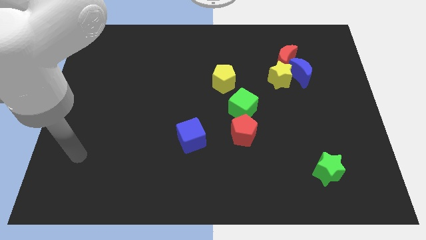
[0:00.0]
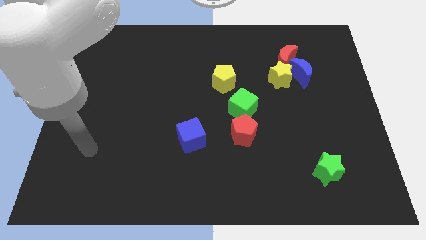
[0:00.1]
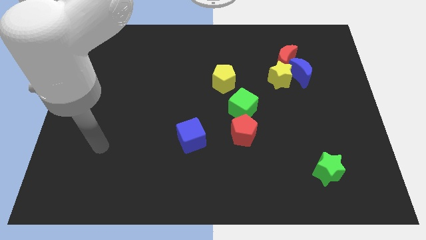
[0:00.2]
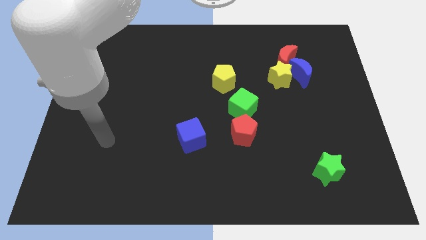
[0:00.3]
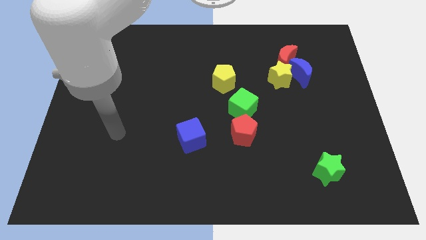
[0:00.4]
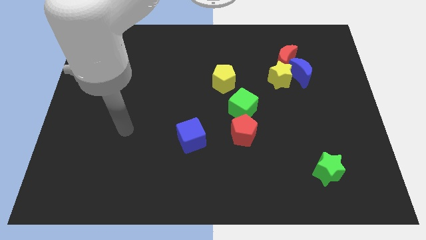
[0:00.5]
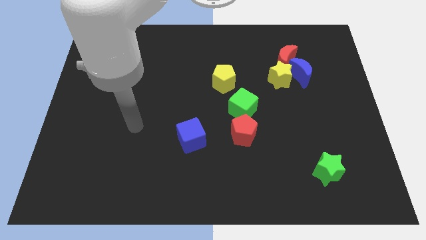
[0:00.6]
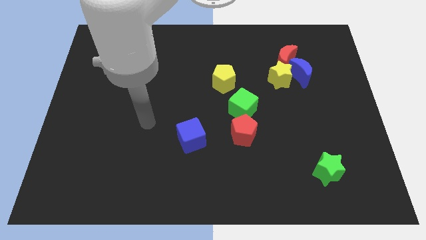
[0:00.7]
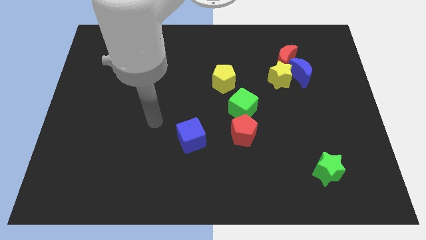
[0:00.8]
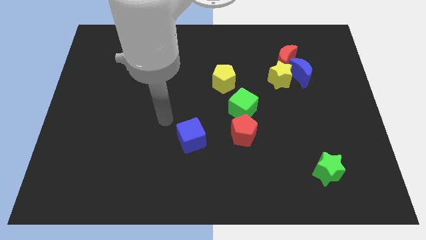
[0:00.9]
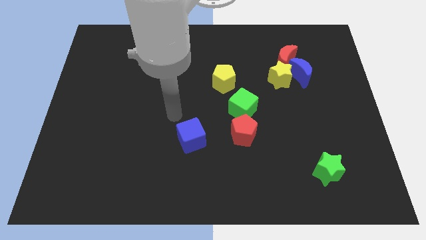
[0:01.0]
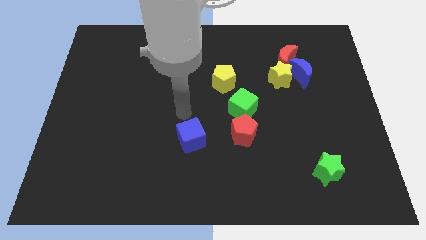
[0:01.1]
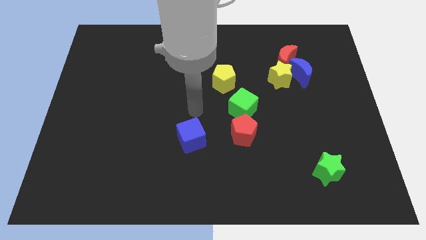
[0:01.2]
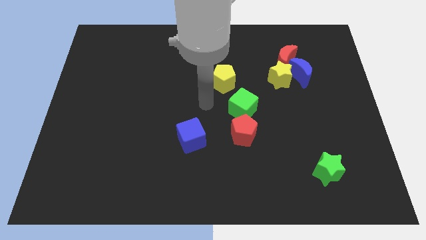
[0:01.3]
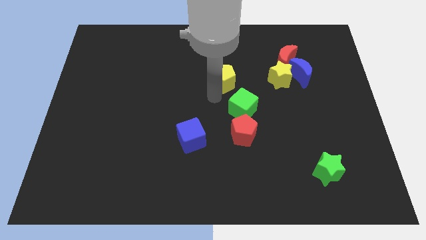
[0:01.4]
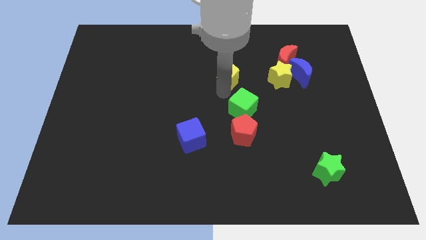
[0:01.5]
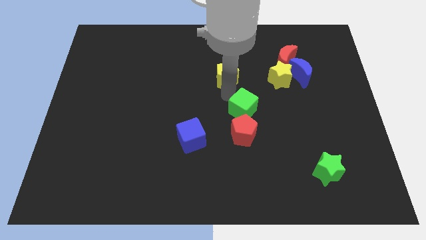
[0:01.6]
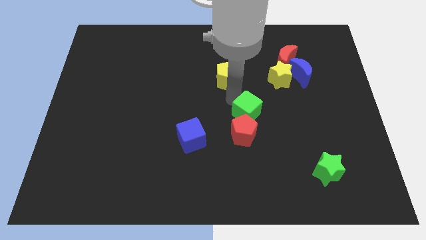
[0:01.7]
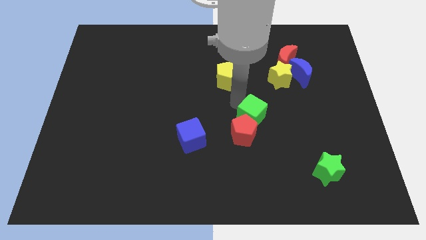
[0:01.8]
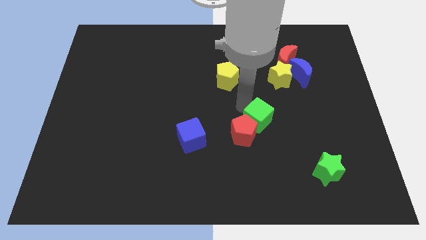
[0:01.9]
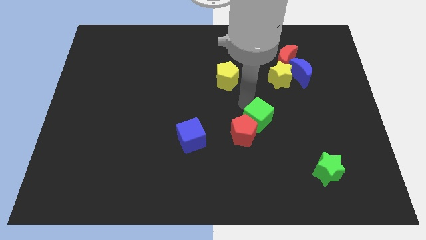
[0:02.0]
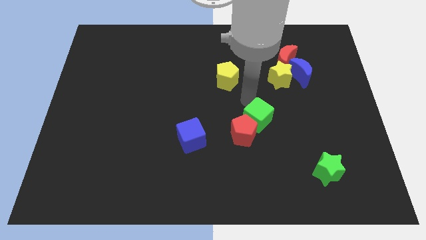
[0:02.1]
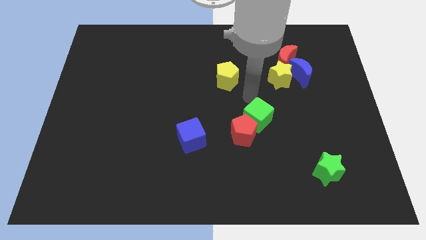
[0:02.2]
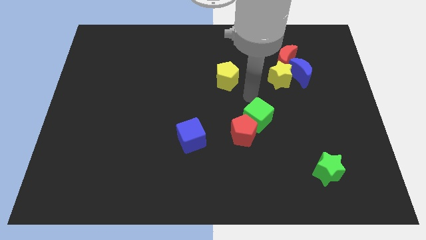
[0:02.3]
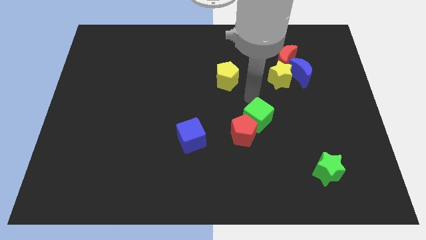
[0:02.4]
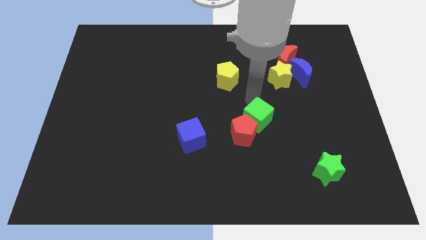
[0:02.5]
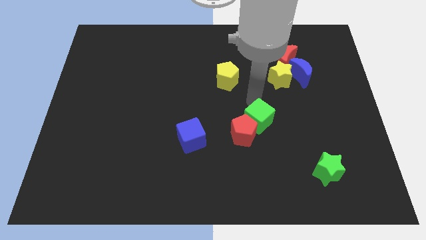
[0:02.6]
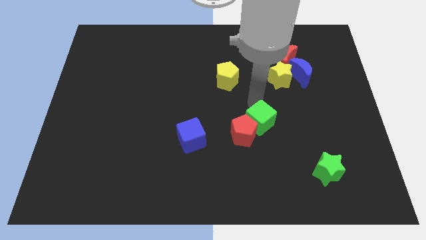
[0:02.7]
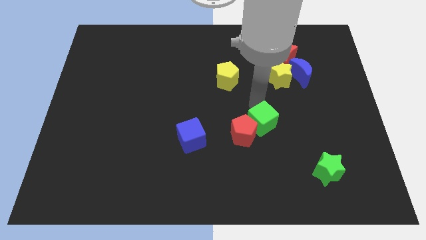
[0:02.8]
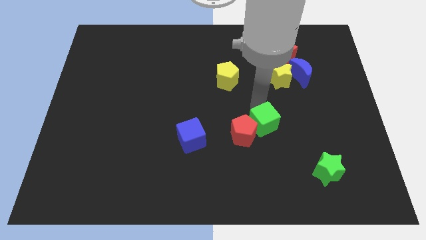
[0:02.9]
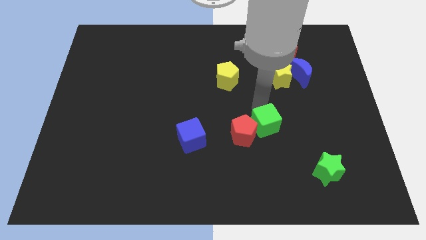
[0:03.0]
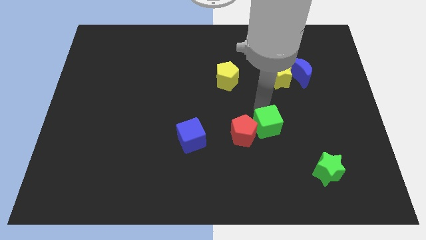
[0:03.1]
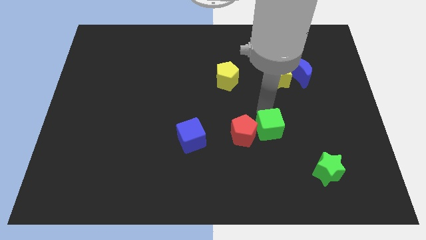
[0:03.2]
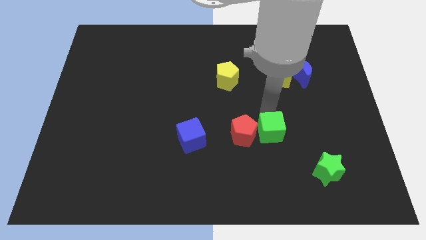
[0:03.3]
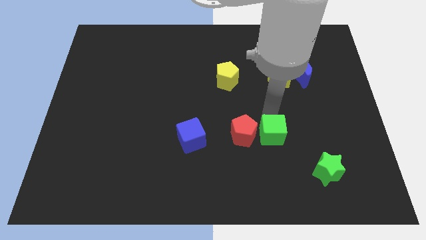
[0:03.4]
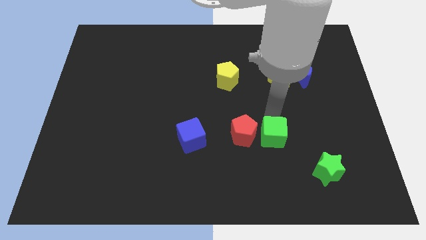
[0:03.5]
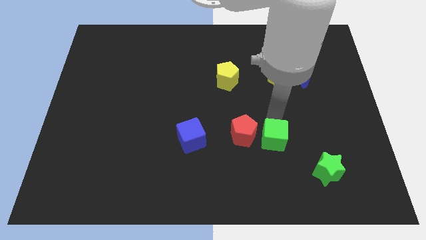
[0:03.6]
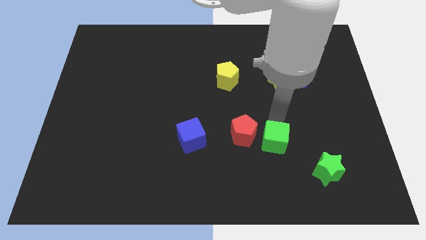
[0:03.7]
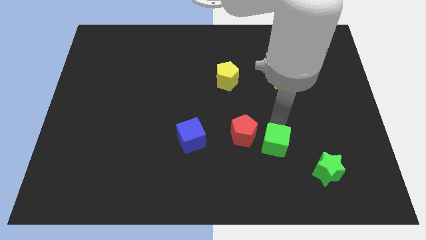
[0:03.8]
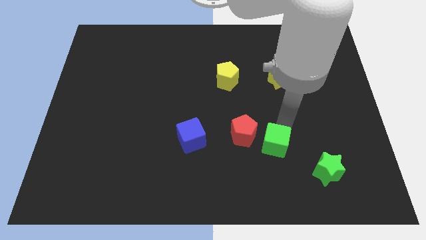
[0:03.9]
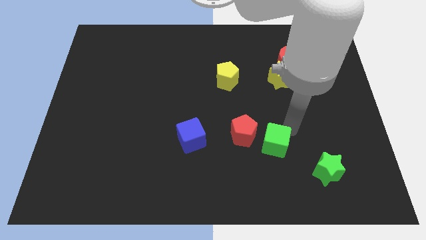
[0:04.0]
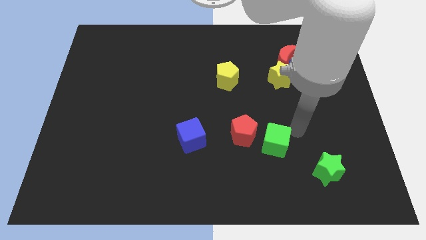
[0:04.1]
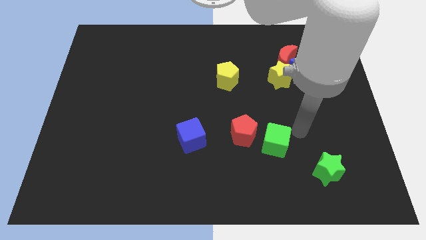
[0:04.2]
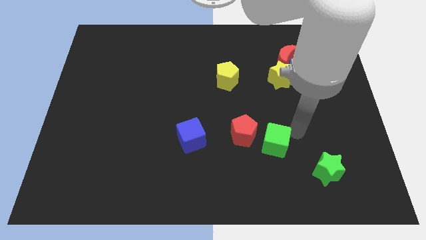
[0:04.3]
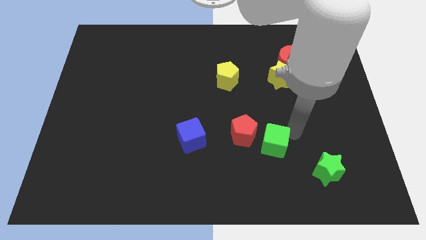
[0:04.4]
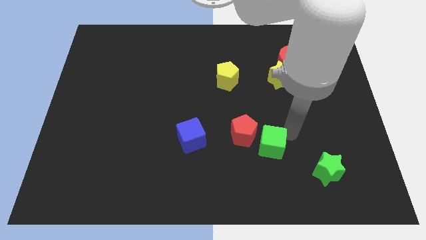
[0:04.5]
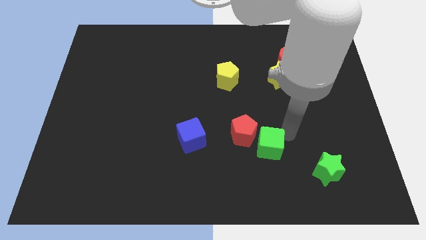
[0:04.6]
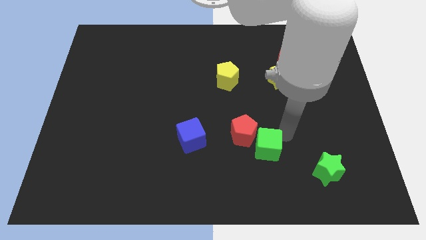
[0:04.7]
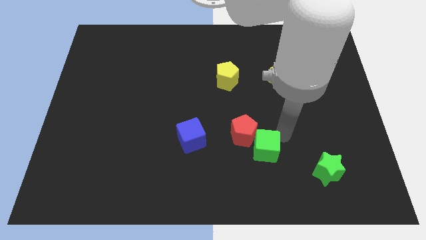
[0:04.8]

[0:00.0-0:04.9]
move the green cube below the red pentagon

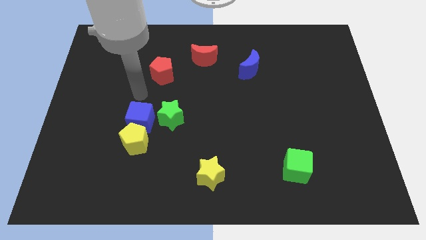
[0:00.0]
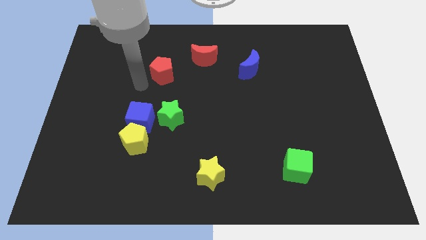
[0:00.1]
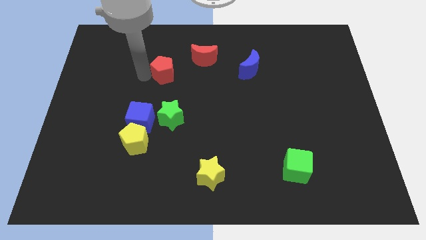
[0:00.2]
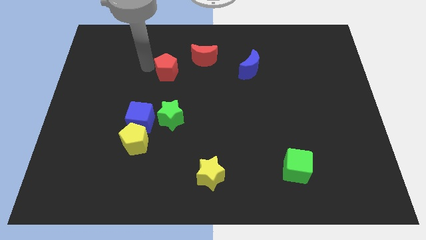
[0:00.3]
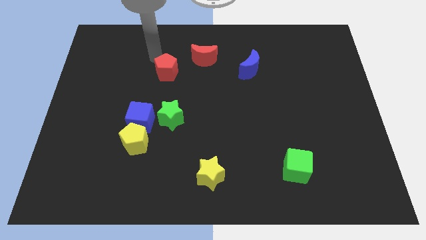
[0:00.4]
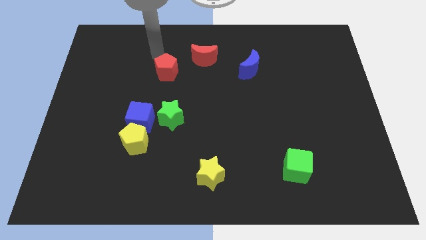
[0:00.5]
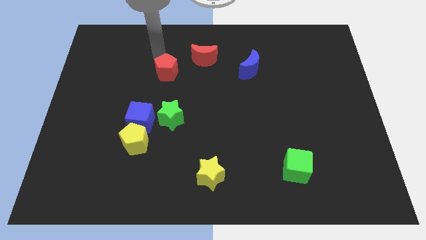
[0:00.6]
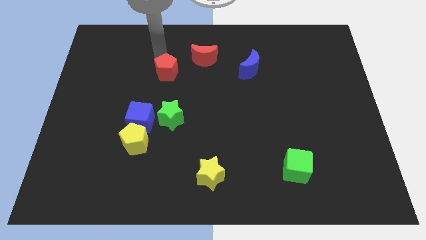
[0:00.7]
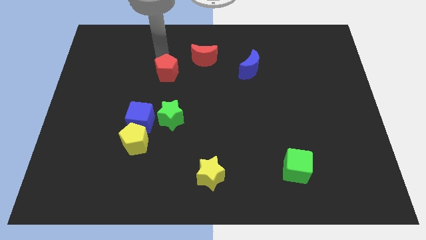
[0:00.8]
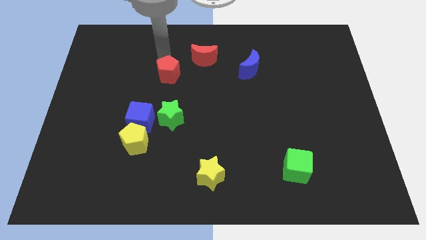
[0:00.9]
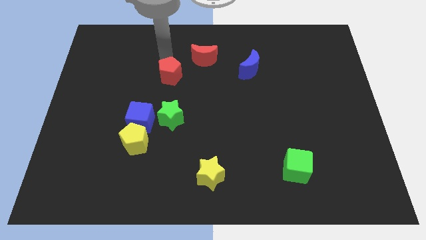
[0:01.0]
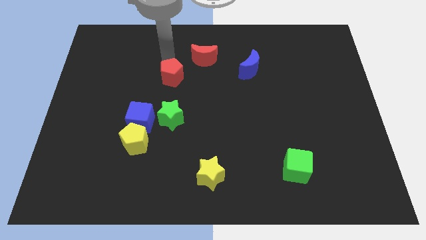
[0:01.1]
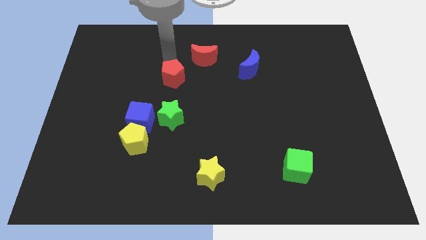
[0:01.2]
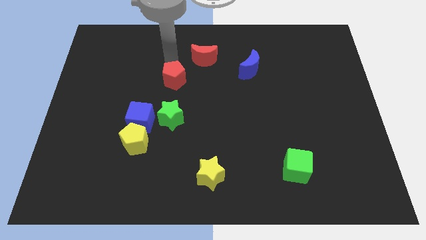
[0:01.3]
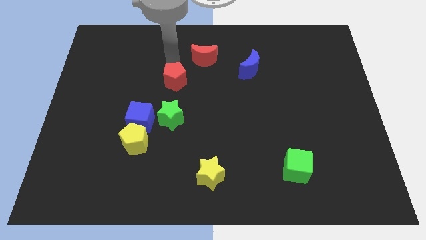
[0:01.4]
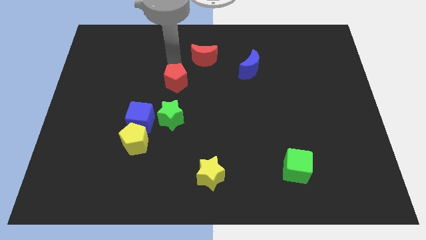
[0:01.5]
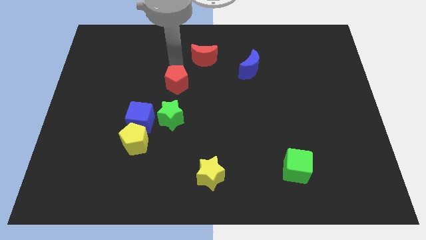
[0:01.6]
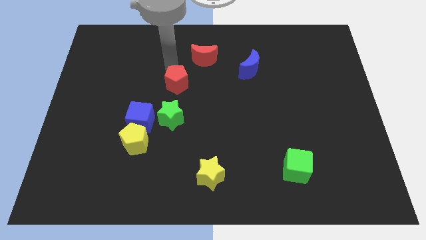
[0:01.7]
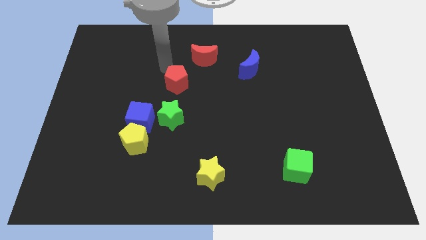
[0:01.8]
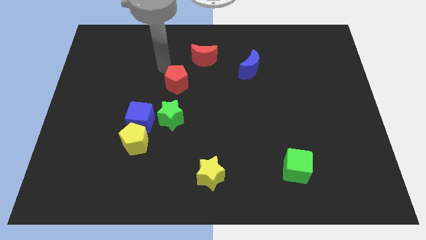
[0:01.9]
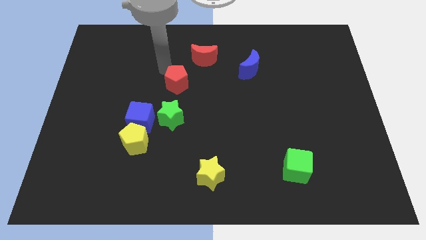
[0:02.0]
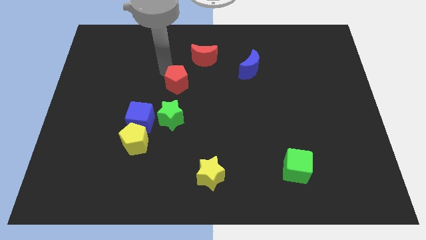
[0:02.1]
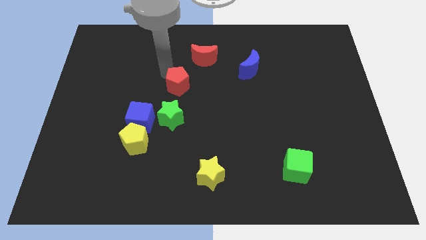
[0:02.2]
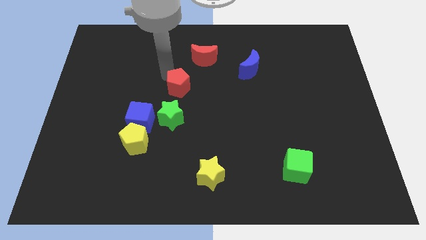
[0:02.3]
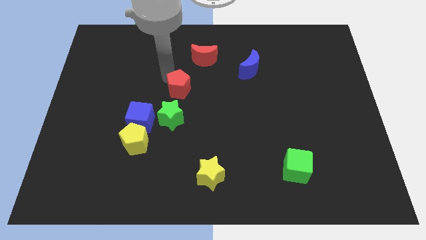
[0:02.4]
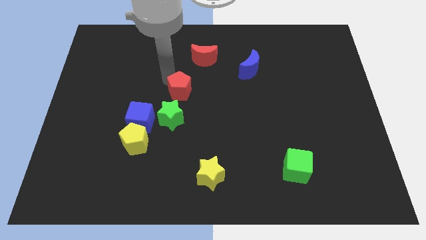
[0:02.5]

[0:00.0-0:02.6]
move the red pentagon to the top right of the green star
